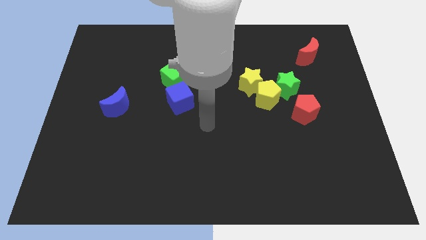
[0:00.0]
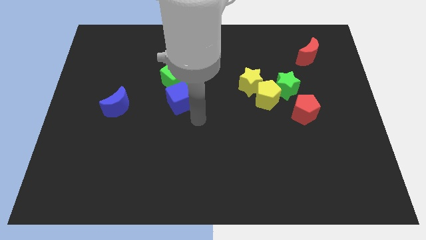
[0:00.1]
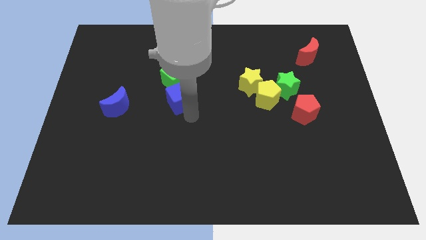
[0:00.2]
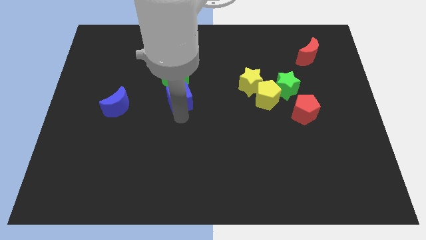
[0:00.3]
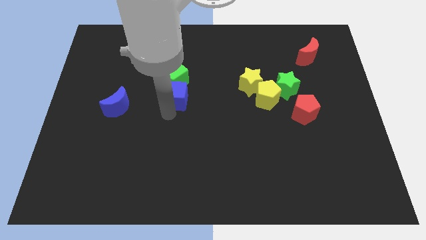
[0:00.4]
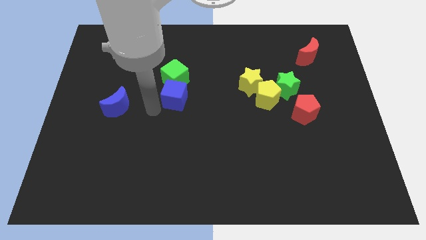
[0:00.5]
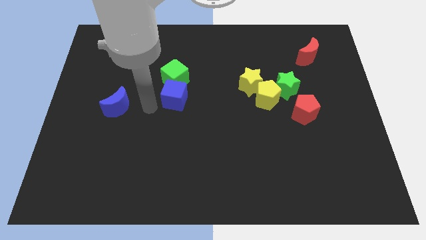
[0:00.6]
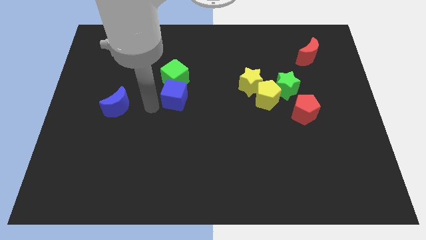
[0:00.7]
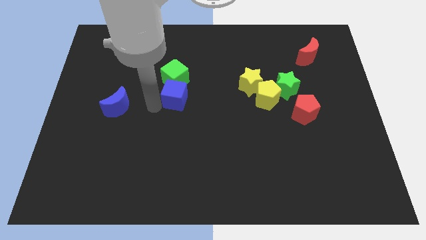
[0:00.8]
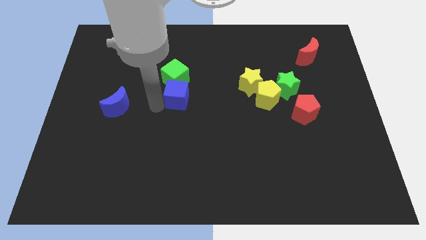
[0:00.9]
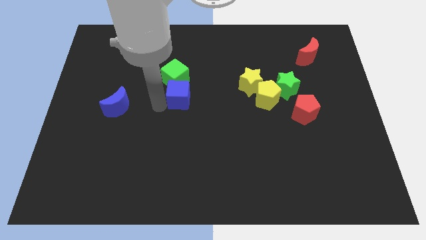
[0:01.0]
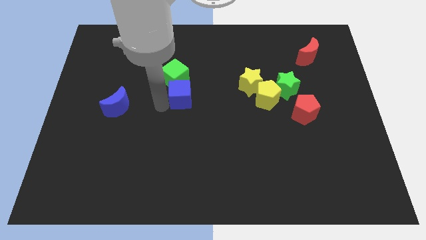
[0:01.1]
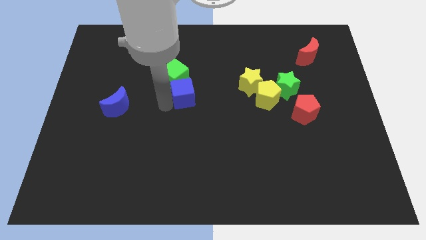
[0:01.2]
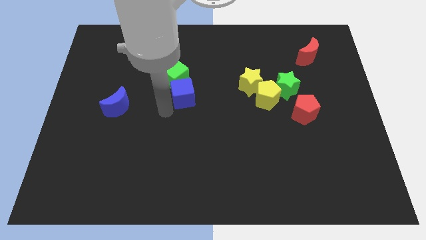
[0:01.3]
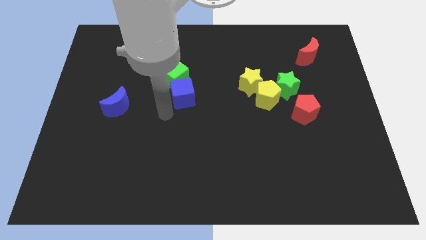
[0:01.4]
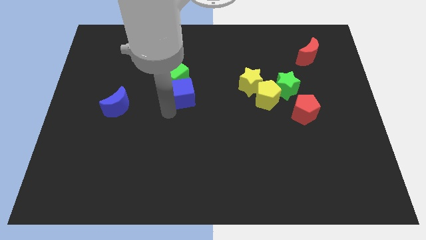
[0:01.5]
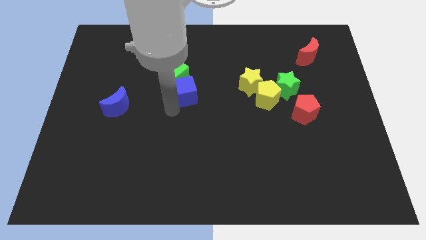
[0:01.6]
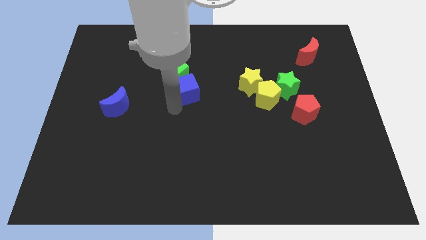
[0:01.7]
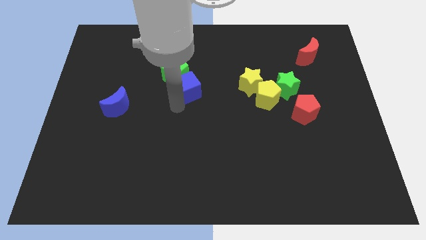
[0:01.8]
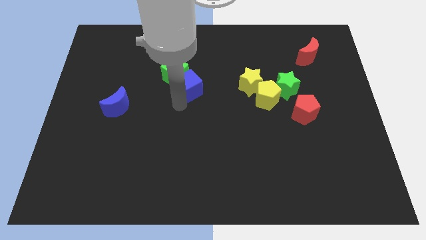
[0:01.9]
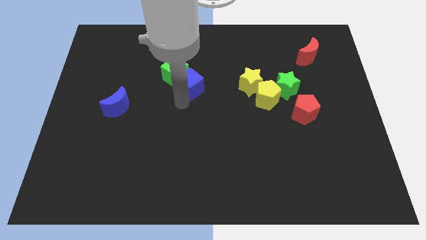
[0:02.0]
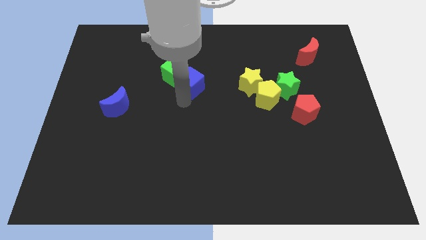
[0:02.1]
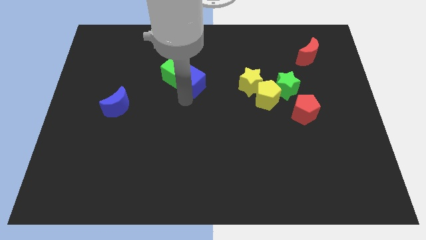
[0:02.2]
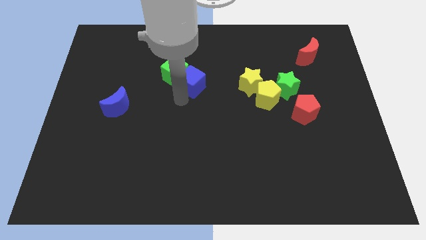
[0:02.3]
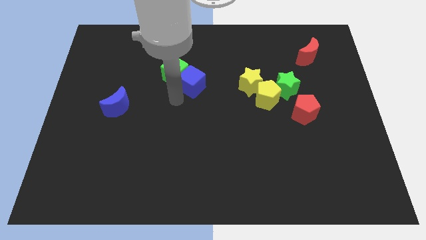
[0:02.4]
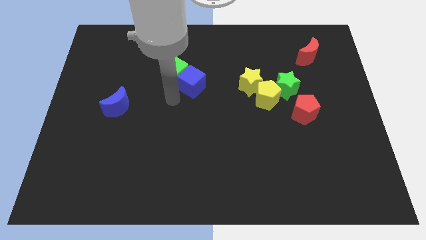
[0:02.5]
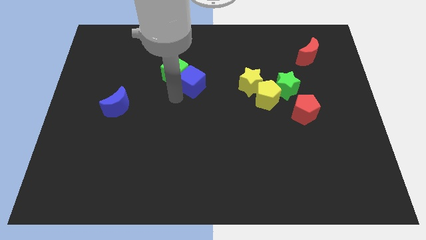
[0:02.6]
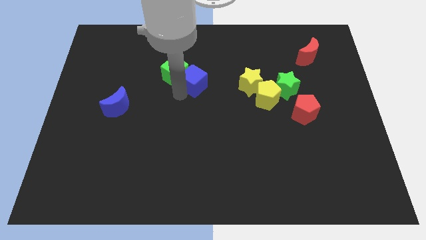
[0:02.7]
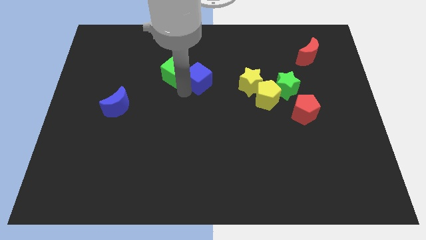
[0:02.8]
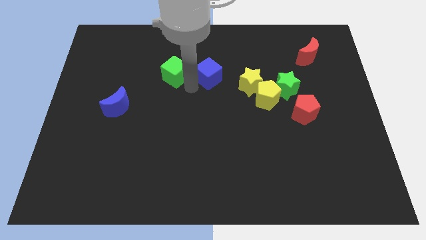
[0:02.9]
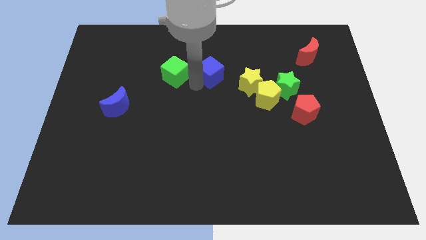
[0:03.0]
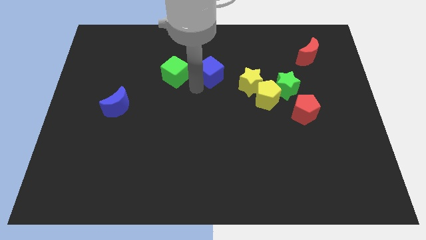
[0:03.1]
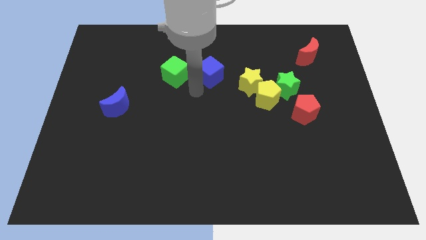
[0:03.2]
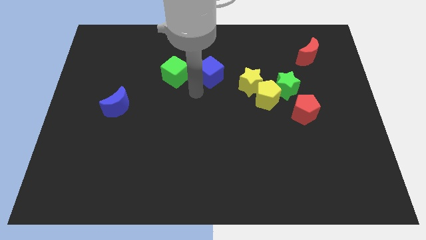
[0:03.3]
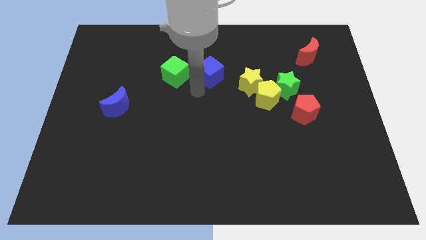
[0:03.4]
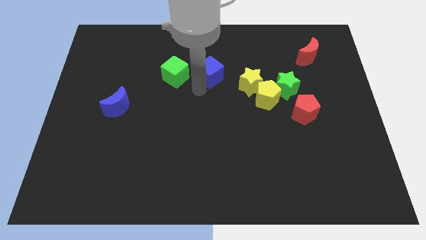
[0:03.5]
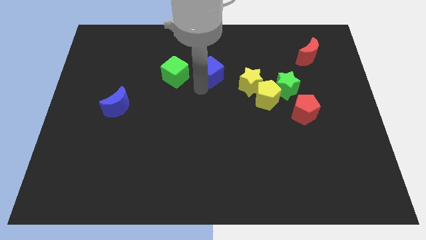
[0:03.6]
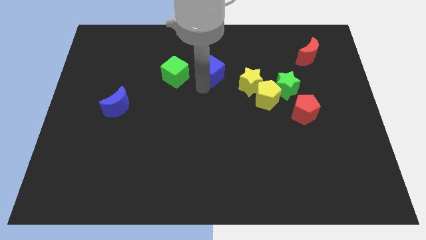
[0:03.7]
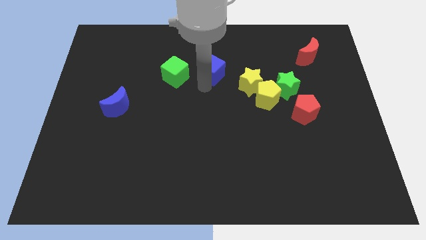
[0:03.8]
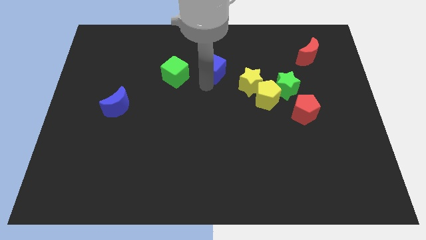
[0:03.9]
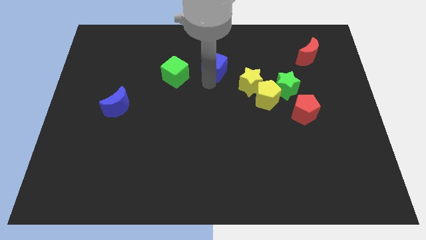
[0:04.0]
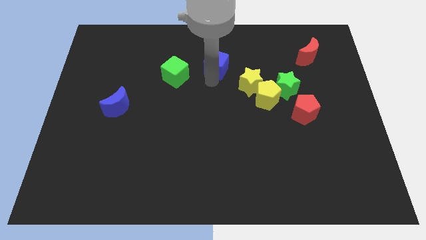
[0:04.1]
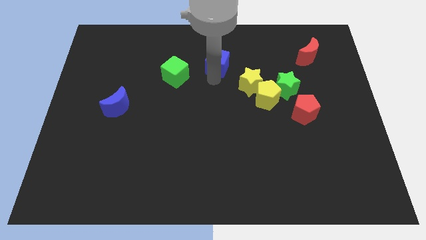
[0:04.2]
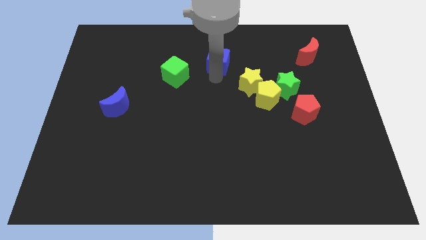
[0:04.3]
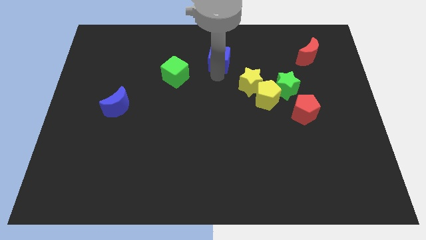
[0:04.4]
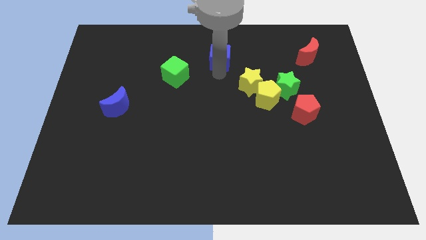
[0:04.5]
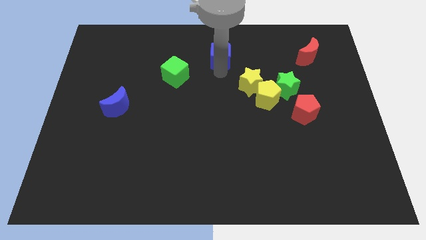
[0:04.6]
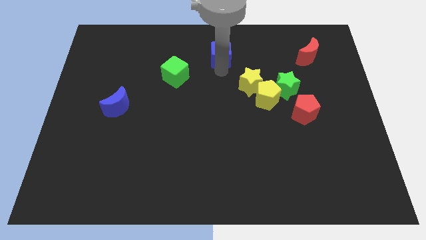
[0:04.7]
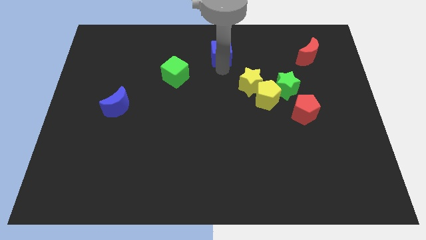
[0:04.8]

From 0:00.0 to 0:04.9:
put the blue cube to the top

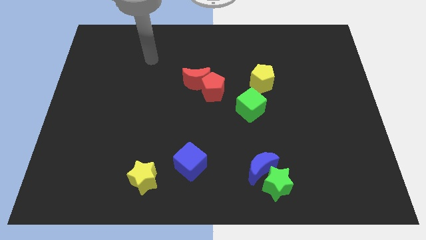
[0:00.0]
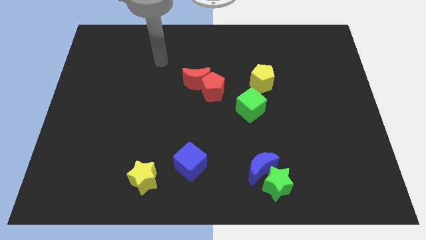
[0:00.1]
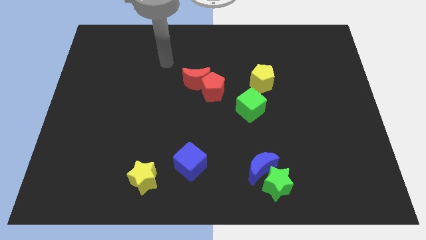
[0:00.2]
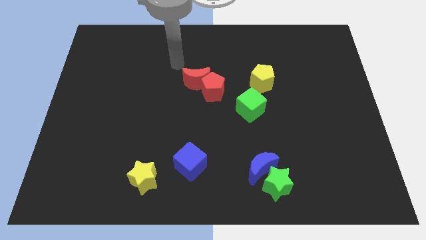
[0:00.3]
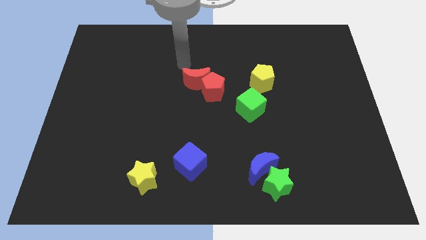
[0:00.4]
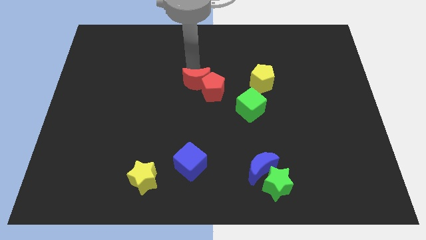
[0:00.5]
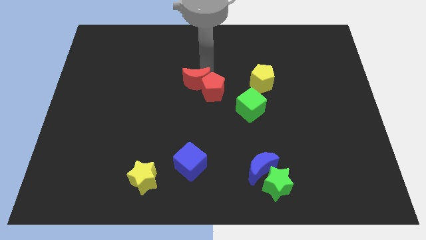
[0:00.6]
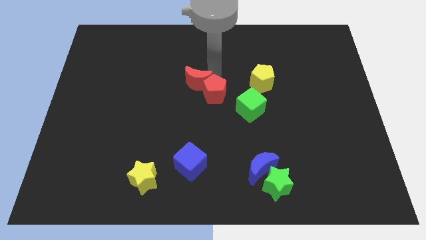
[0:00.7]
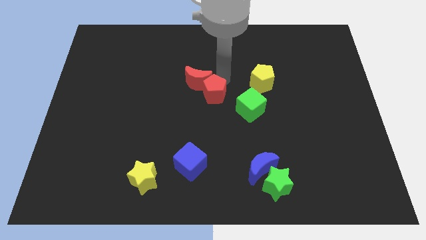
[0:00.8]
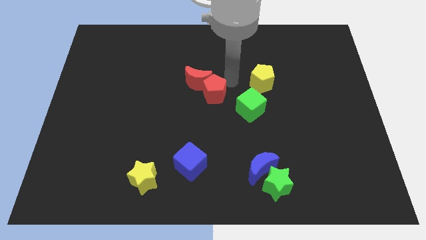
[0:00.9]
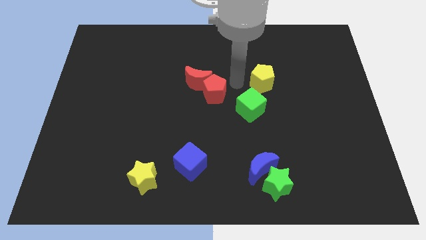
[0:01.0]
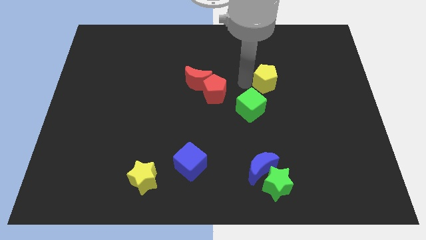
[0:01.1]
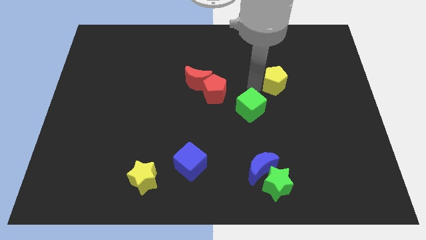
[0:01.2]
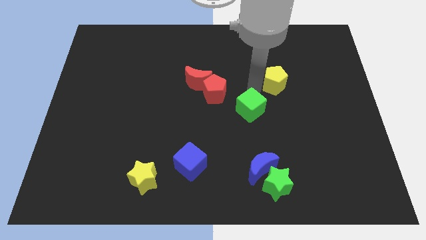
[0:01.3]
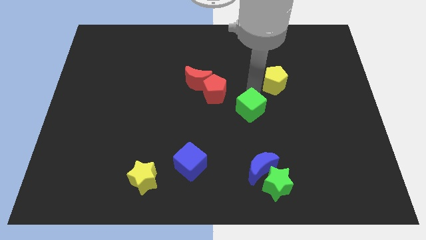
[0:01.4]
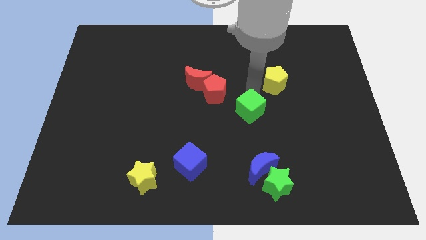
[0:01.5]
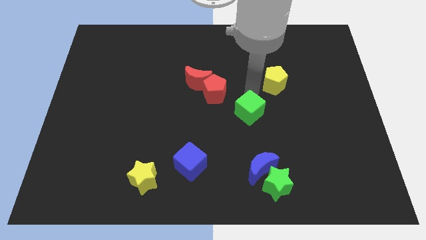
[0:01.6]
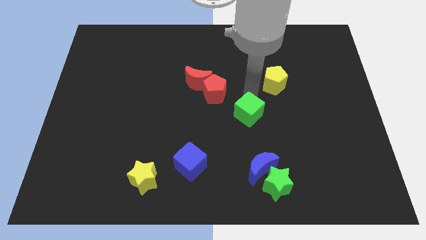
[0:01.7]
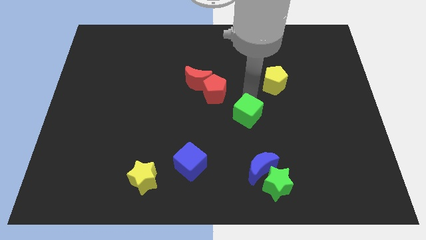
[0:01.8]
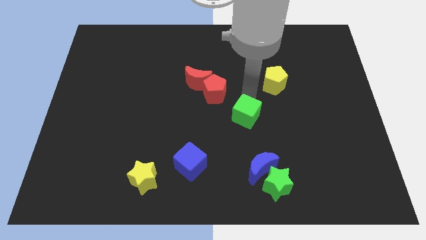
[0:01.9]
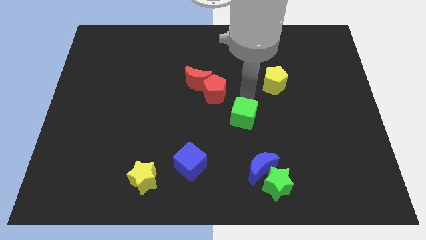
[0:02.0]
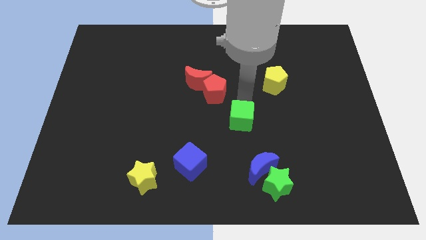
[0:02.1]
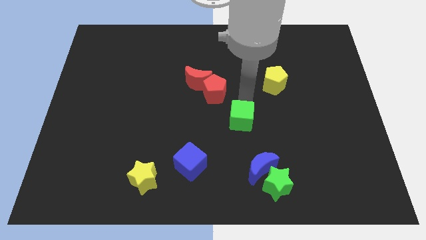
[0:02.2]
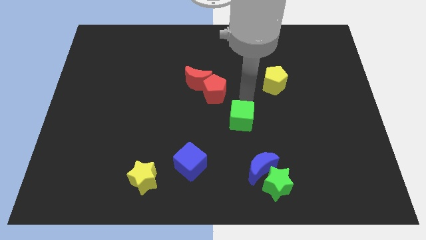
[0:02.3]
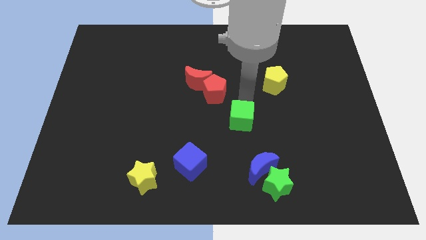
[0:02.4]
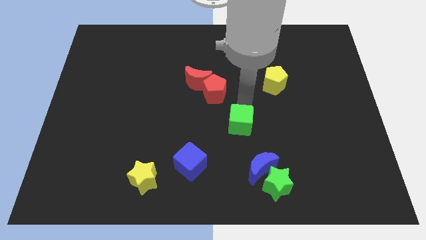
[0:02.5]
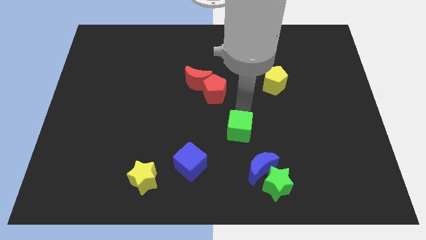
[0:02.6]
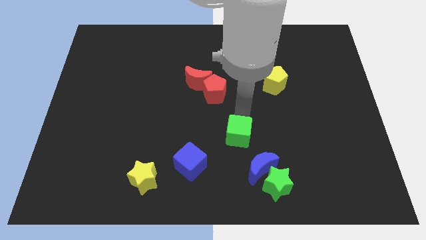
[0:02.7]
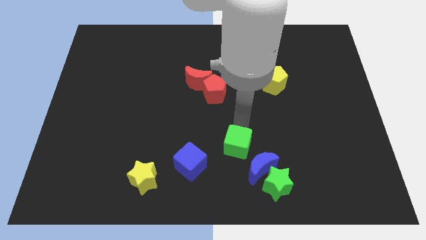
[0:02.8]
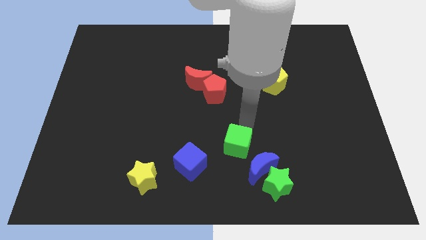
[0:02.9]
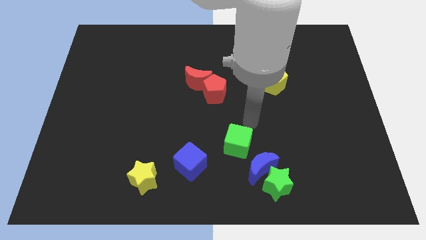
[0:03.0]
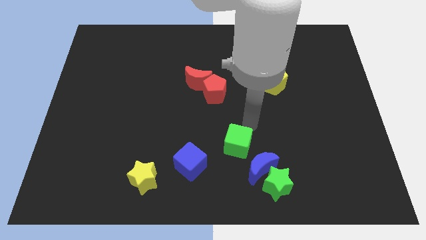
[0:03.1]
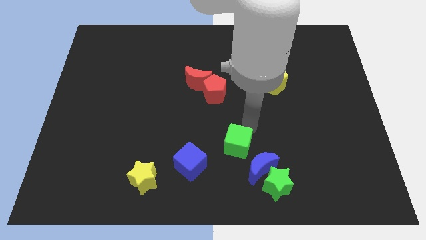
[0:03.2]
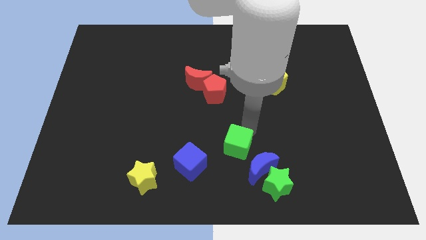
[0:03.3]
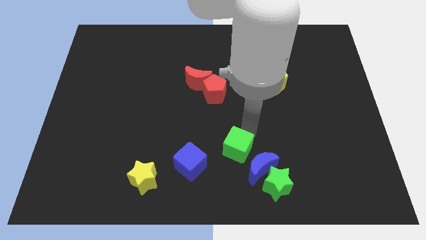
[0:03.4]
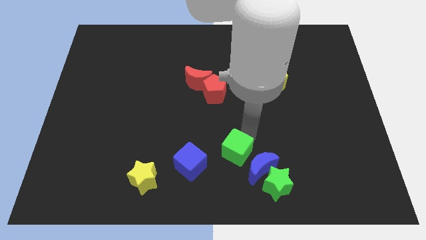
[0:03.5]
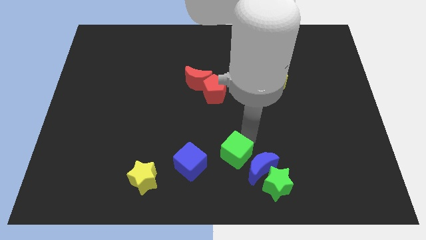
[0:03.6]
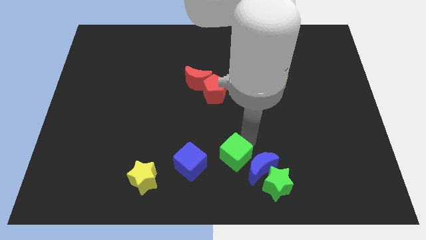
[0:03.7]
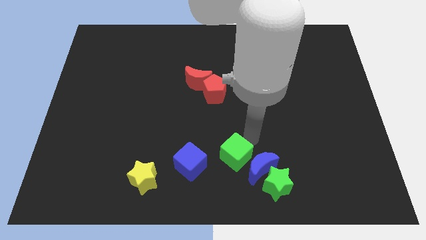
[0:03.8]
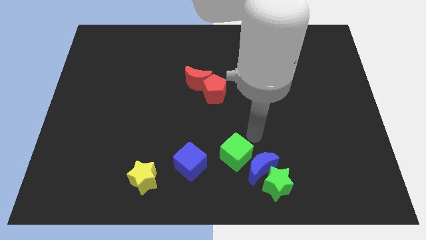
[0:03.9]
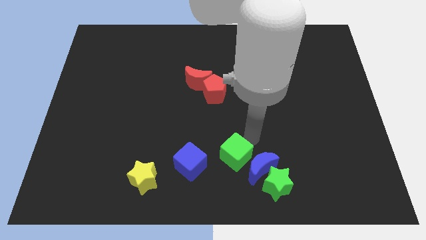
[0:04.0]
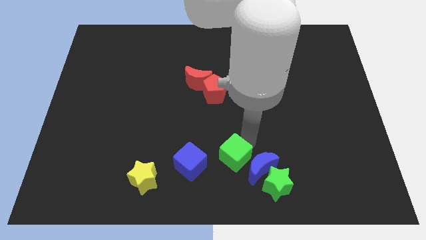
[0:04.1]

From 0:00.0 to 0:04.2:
move the green cube to the bottom side
